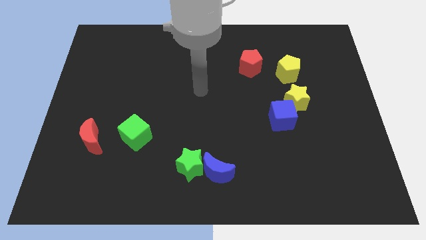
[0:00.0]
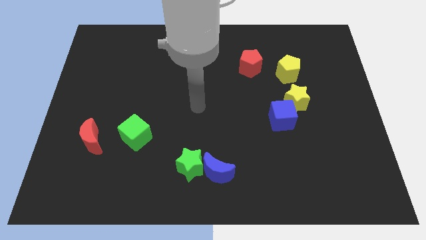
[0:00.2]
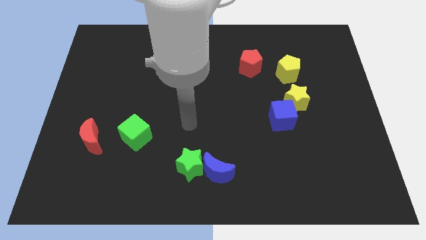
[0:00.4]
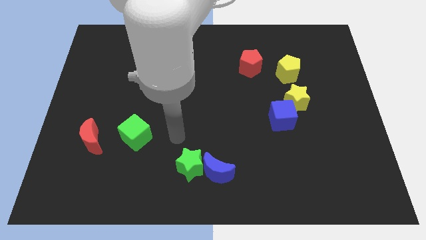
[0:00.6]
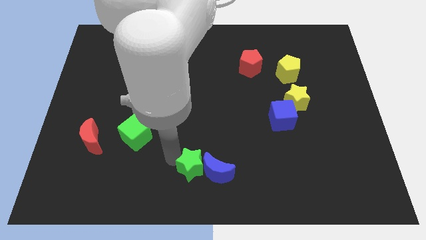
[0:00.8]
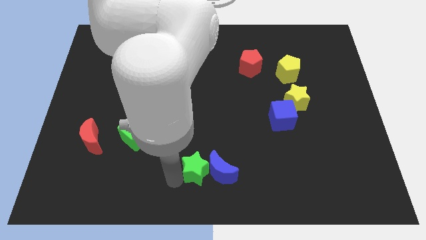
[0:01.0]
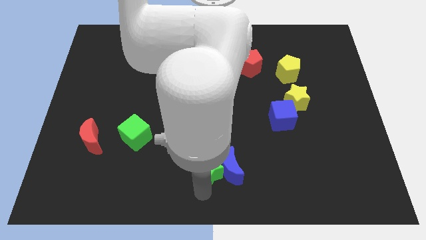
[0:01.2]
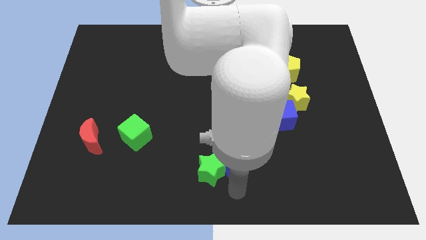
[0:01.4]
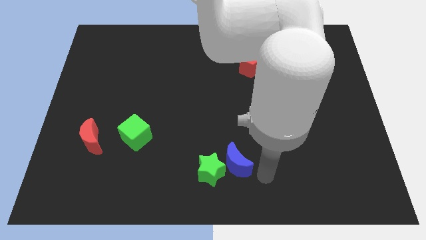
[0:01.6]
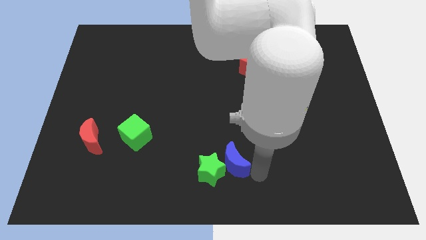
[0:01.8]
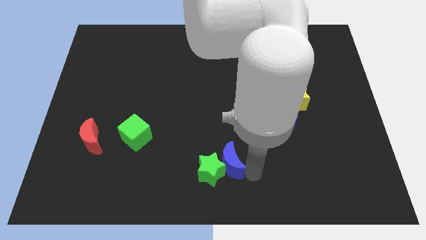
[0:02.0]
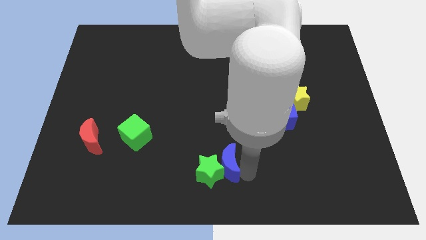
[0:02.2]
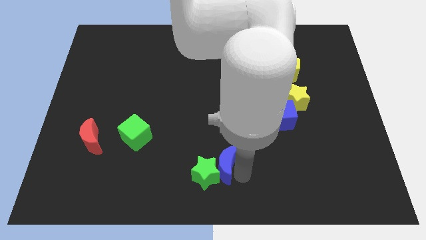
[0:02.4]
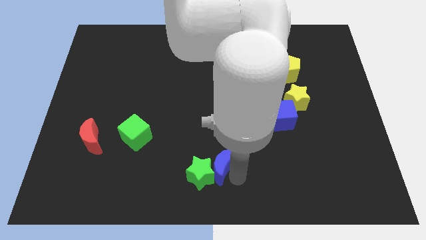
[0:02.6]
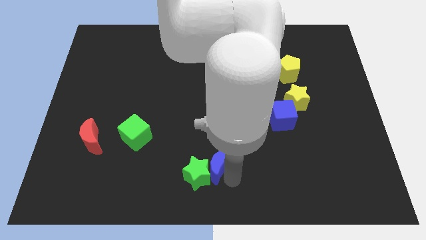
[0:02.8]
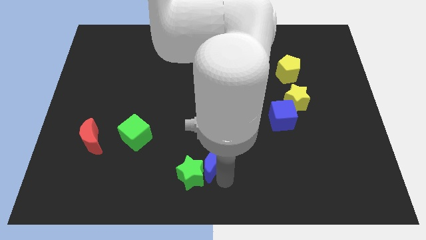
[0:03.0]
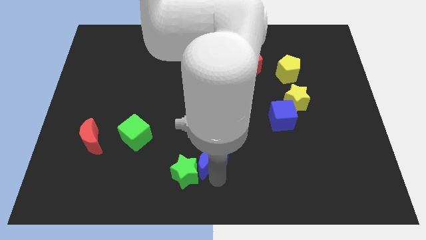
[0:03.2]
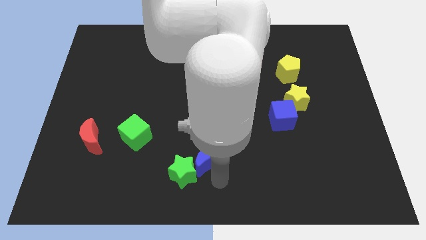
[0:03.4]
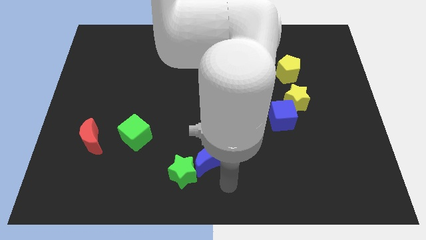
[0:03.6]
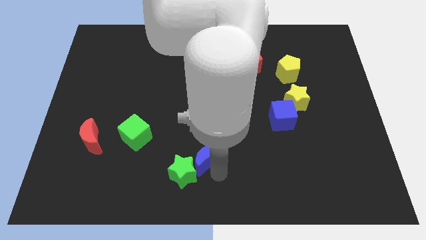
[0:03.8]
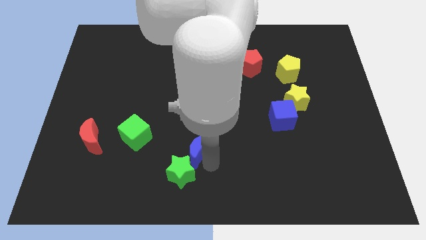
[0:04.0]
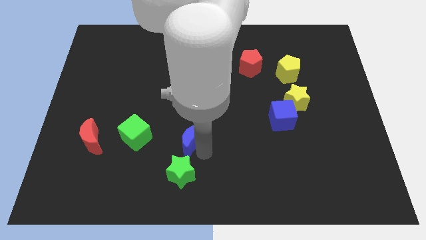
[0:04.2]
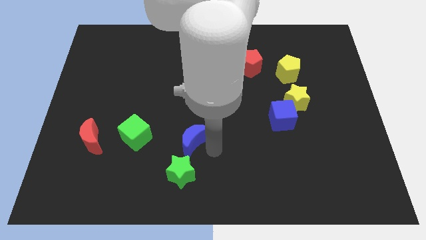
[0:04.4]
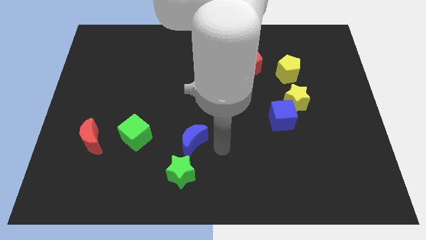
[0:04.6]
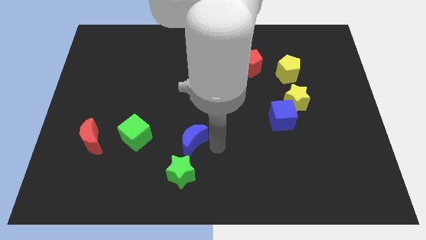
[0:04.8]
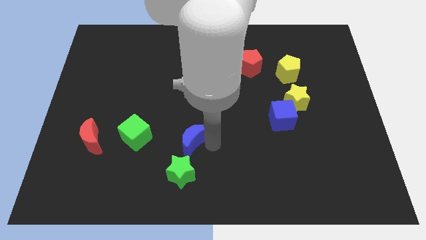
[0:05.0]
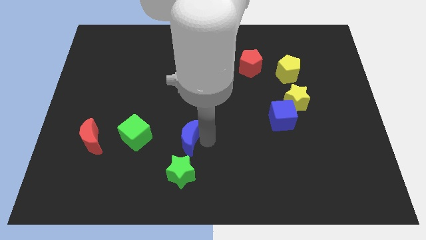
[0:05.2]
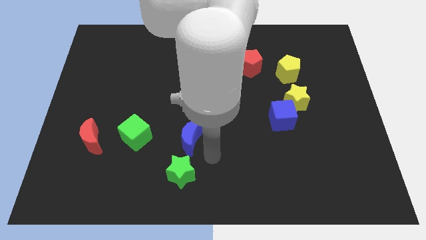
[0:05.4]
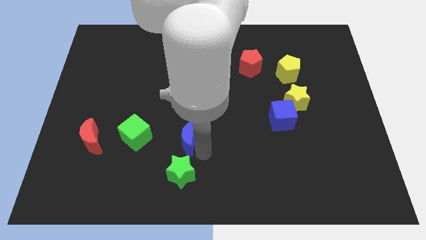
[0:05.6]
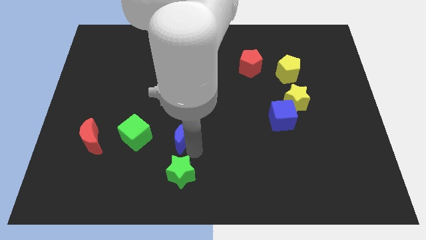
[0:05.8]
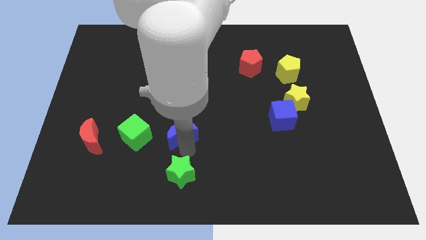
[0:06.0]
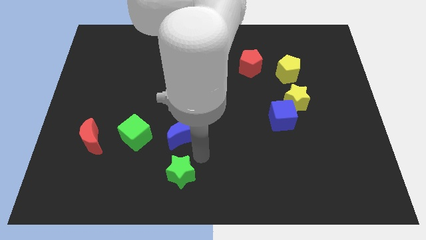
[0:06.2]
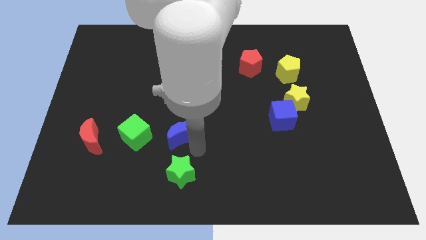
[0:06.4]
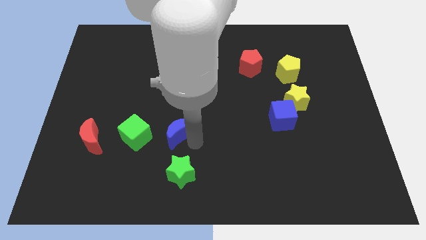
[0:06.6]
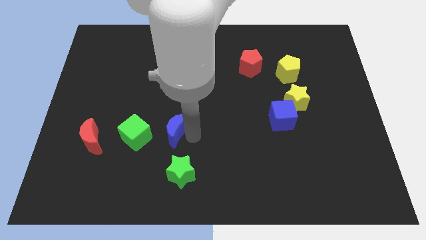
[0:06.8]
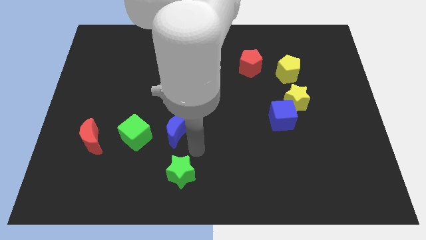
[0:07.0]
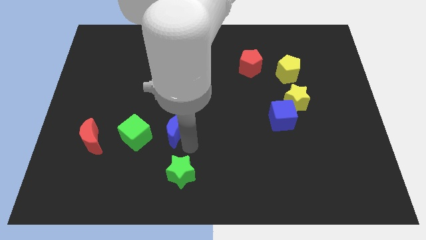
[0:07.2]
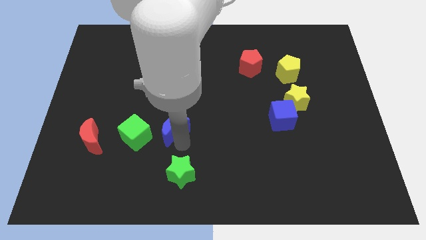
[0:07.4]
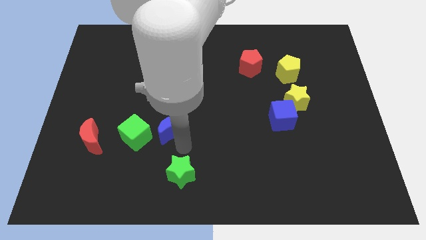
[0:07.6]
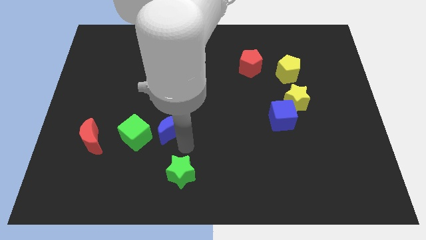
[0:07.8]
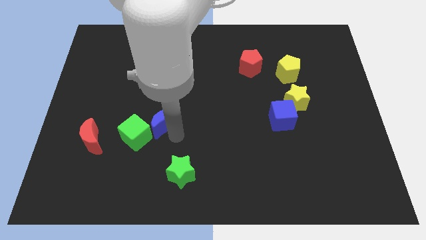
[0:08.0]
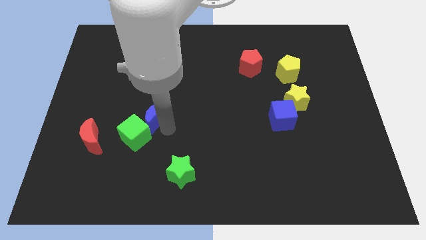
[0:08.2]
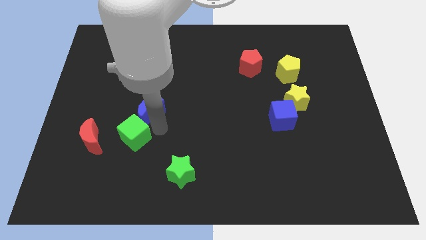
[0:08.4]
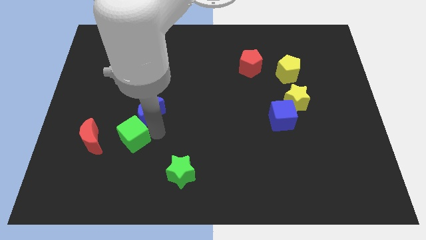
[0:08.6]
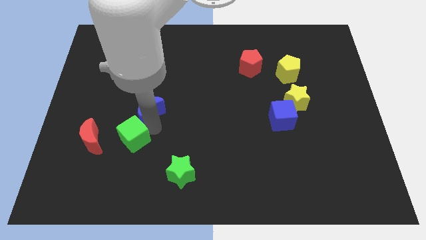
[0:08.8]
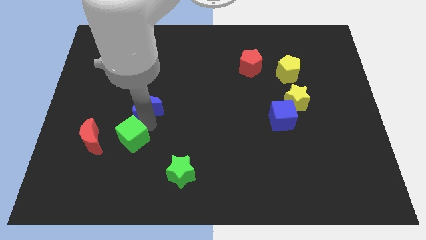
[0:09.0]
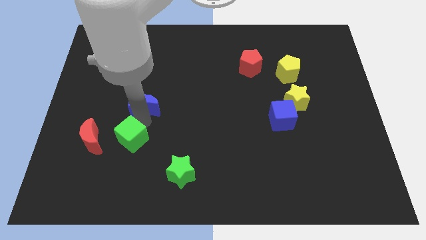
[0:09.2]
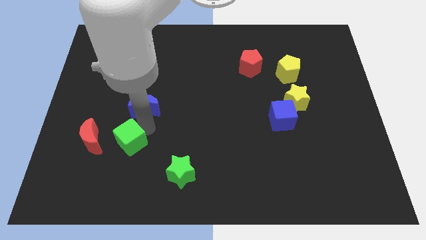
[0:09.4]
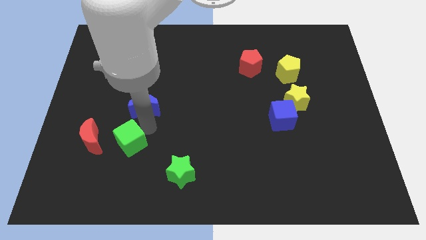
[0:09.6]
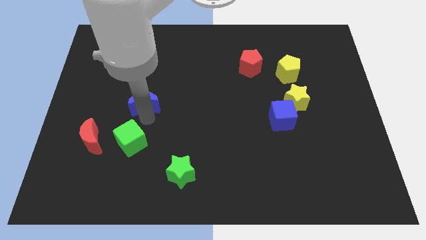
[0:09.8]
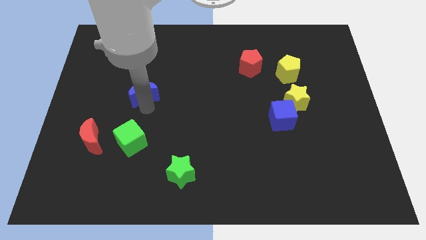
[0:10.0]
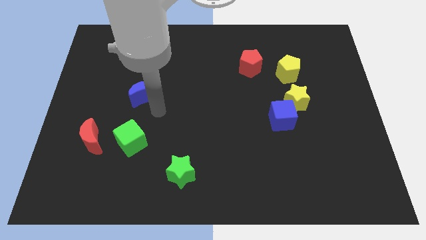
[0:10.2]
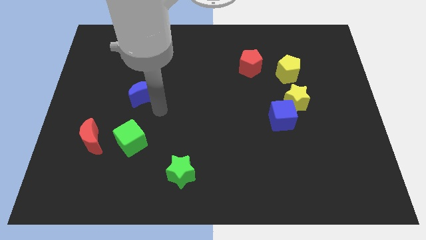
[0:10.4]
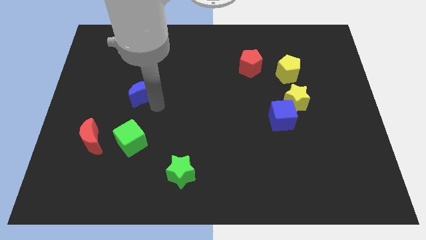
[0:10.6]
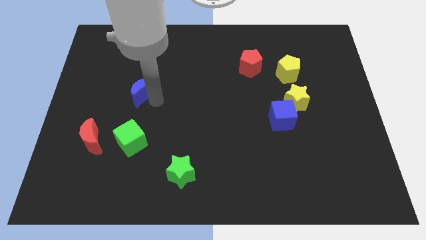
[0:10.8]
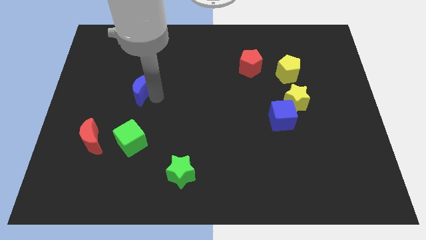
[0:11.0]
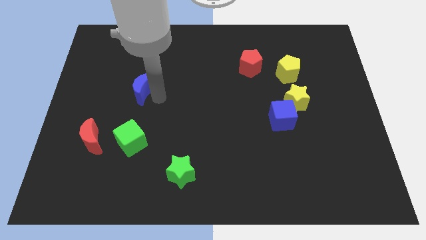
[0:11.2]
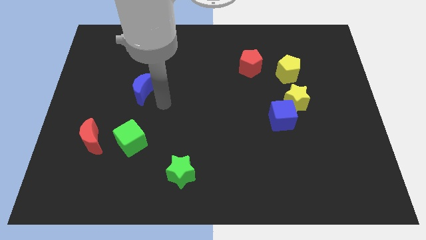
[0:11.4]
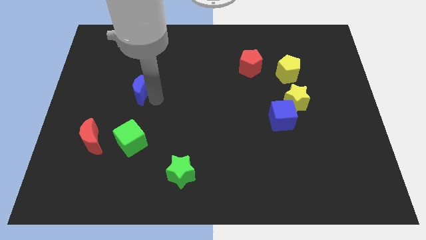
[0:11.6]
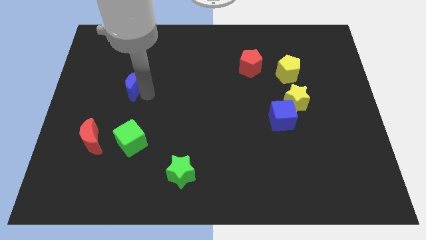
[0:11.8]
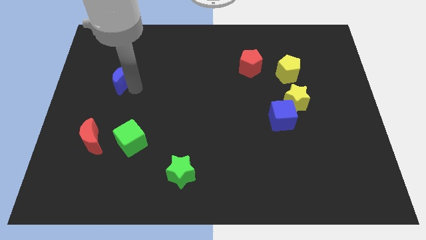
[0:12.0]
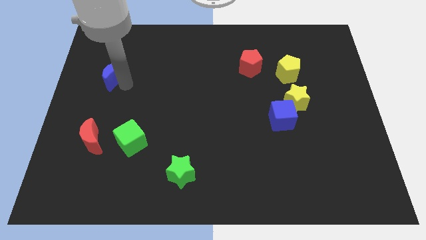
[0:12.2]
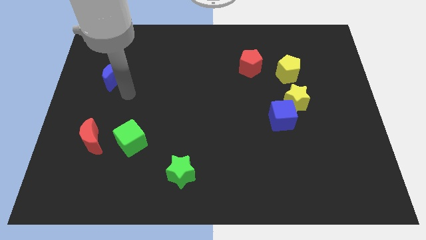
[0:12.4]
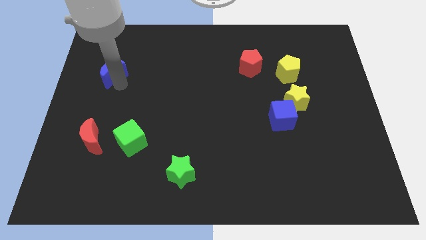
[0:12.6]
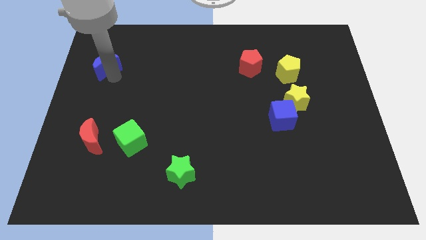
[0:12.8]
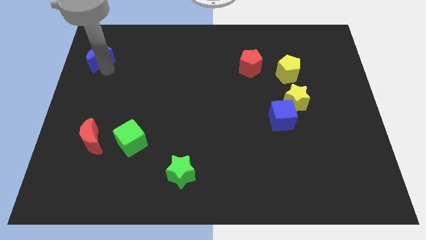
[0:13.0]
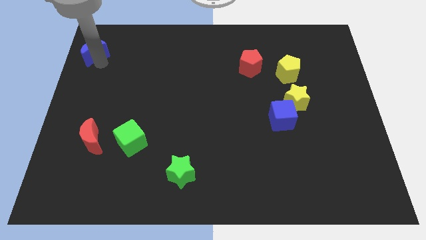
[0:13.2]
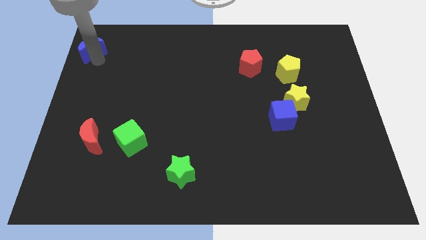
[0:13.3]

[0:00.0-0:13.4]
slide the blue moon to the top left of the board
